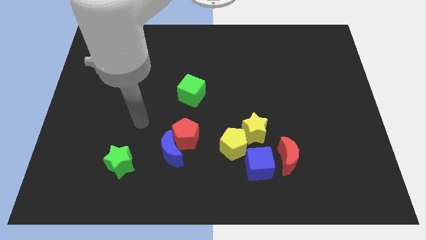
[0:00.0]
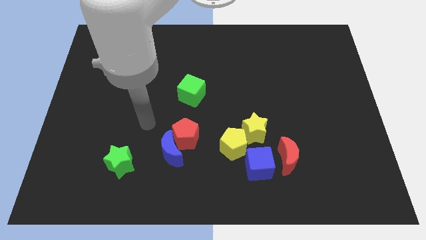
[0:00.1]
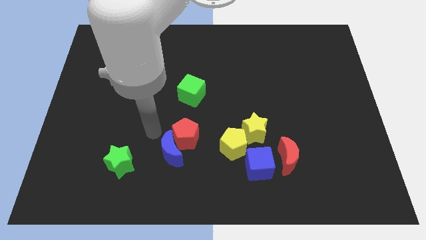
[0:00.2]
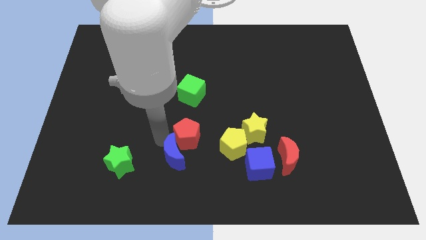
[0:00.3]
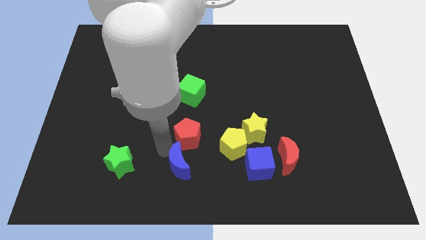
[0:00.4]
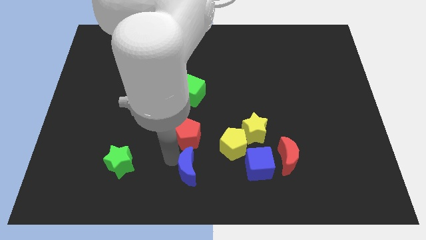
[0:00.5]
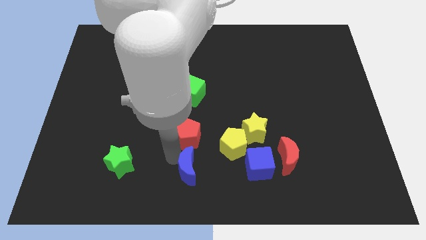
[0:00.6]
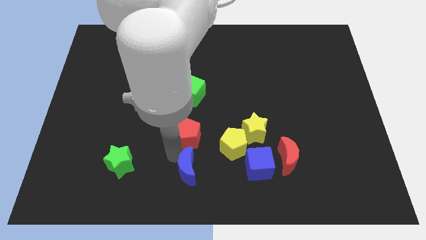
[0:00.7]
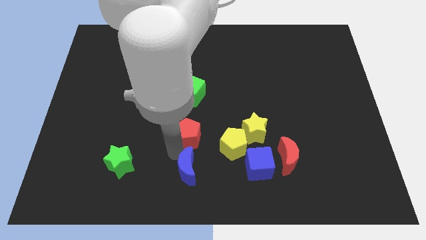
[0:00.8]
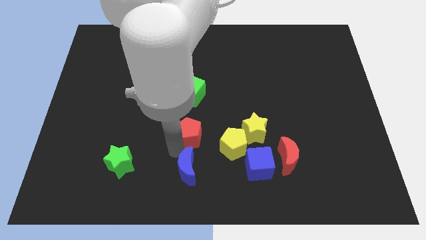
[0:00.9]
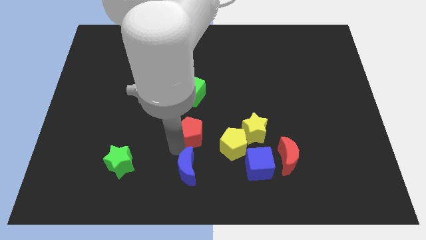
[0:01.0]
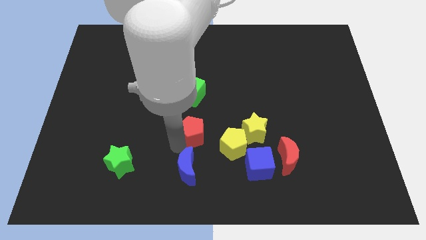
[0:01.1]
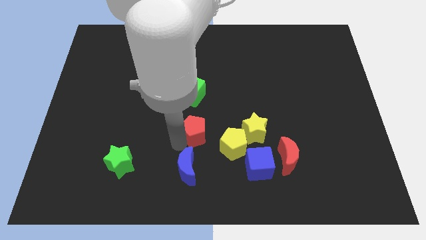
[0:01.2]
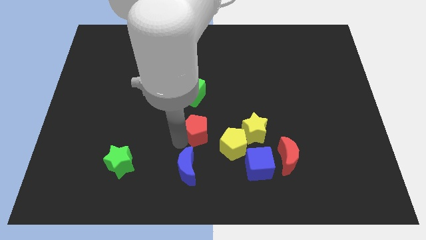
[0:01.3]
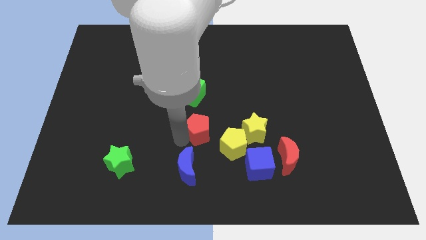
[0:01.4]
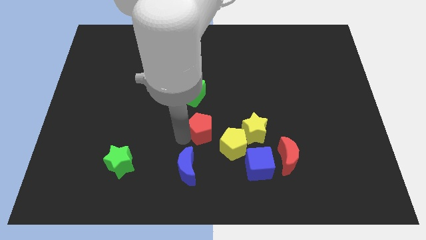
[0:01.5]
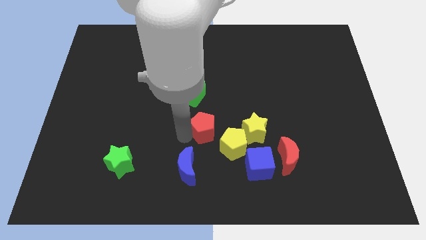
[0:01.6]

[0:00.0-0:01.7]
pull the red pentagon apart from the blue moon

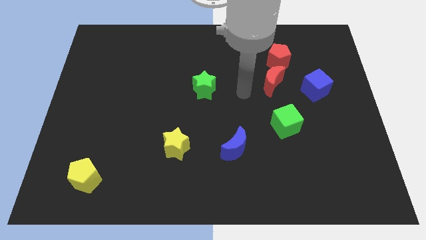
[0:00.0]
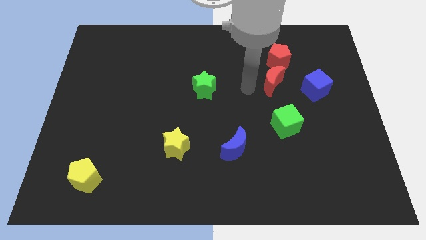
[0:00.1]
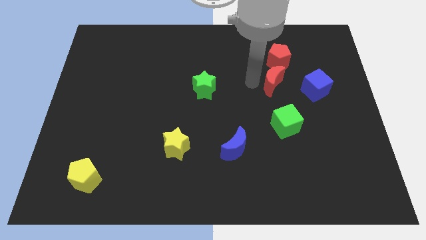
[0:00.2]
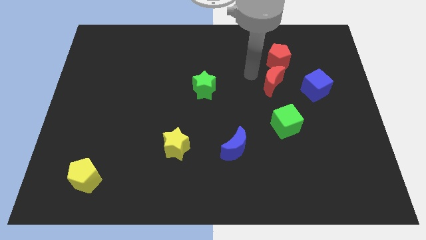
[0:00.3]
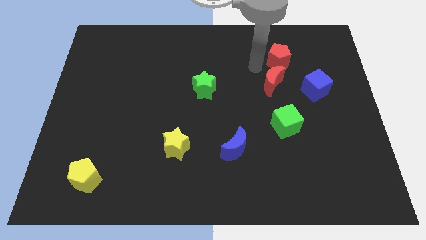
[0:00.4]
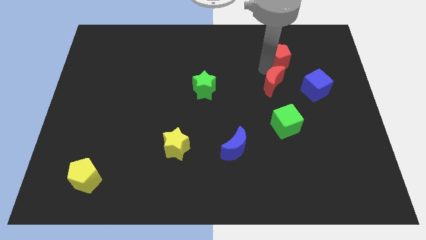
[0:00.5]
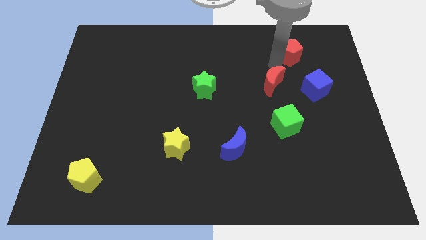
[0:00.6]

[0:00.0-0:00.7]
separate the red moon from the red pentagon

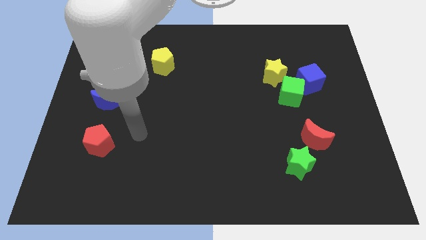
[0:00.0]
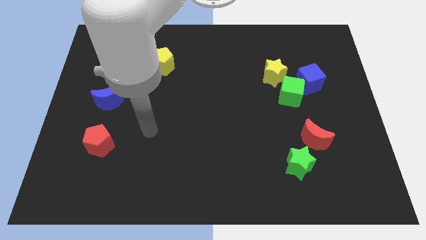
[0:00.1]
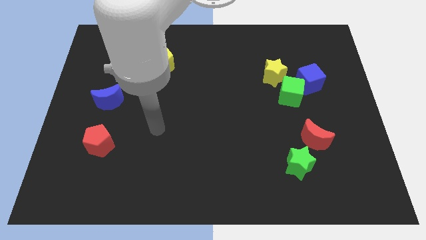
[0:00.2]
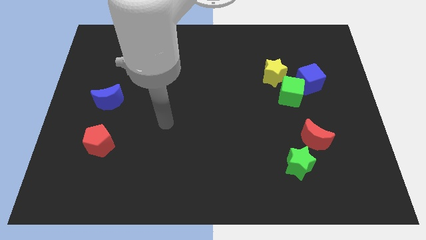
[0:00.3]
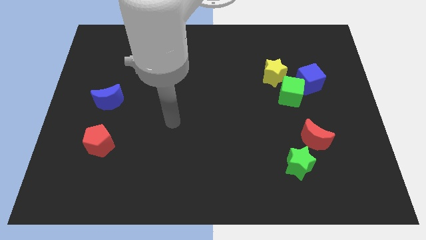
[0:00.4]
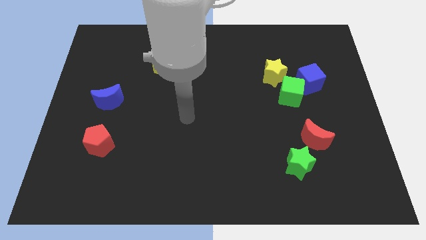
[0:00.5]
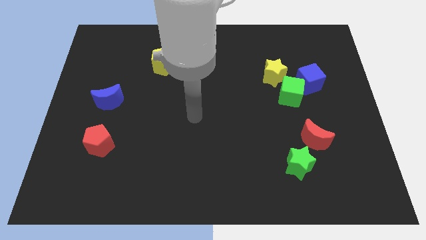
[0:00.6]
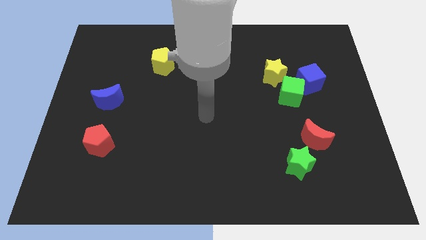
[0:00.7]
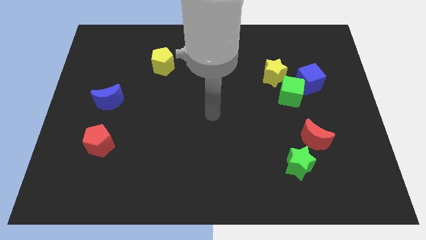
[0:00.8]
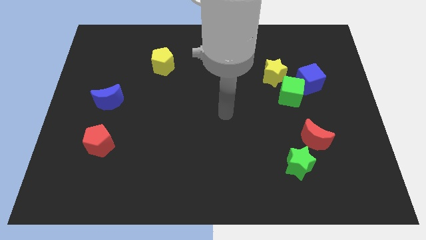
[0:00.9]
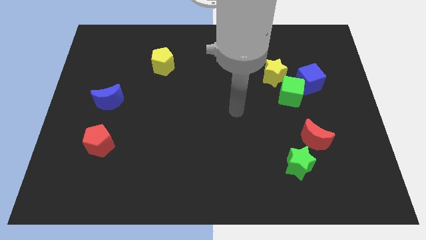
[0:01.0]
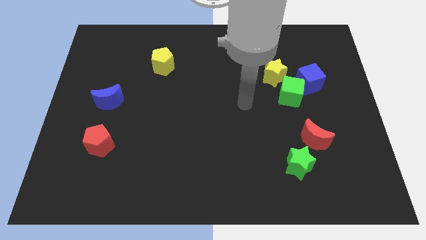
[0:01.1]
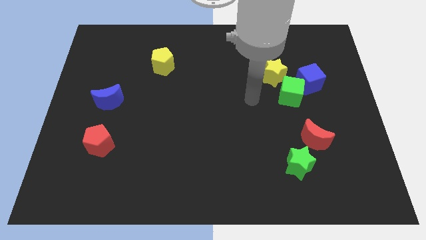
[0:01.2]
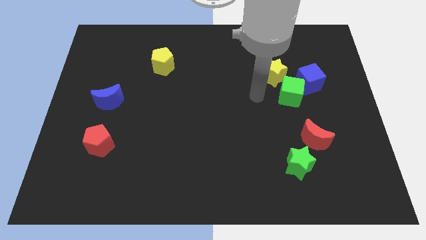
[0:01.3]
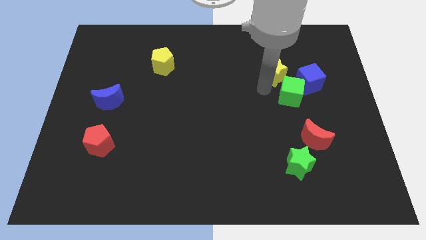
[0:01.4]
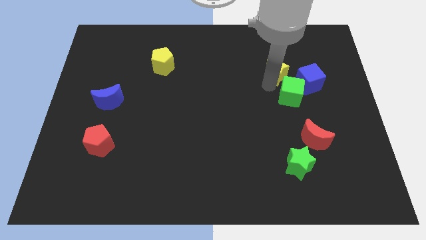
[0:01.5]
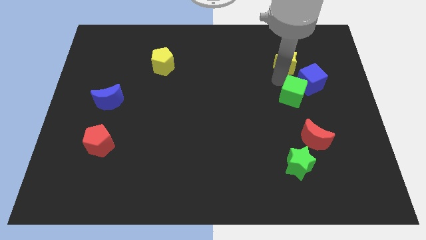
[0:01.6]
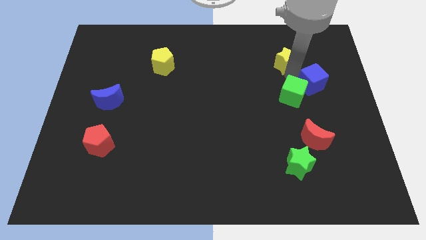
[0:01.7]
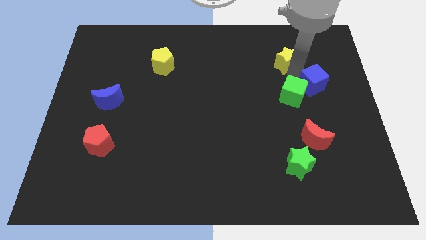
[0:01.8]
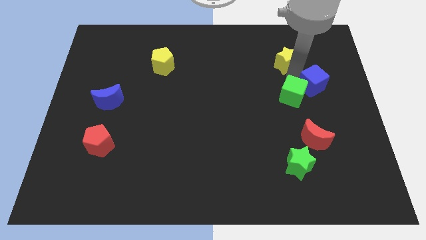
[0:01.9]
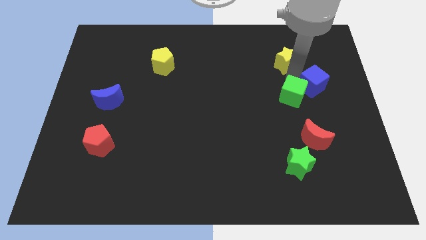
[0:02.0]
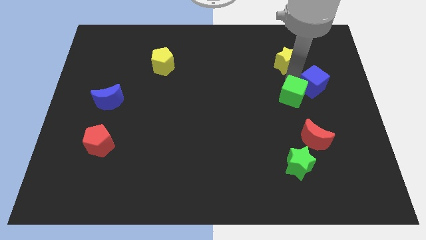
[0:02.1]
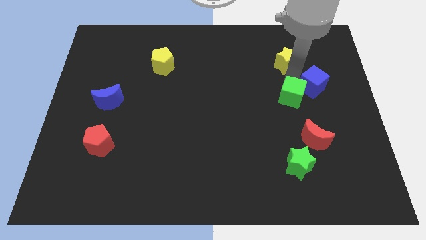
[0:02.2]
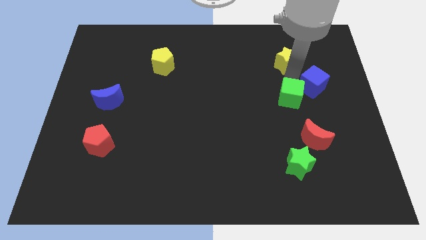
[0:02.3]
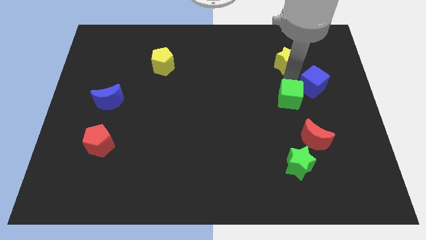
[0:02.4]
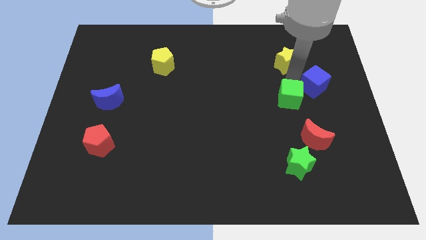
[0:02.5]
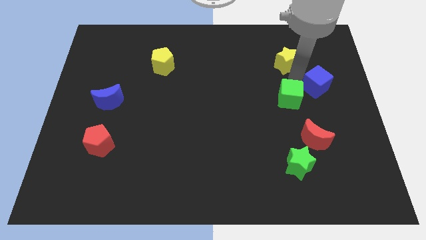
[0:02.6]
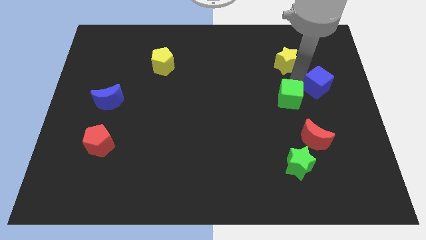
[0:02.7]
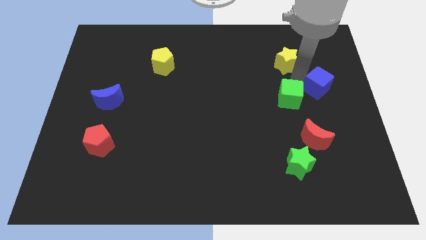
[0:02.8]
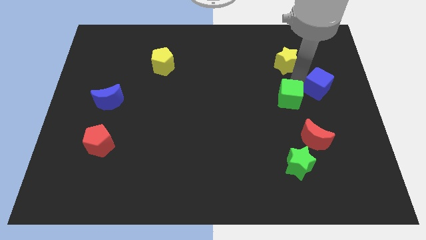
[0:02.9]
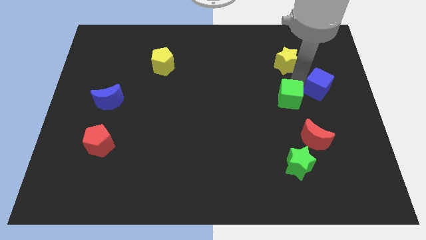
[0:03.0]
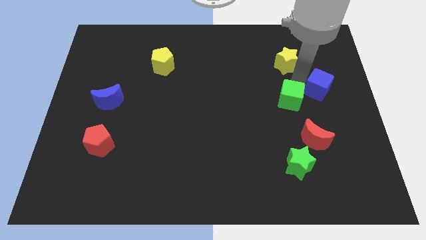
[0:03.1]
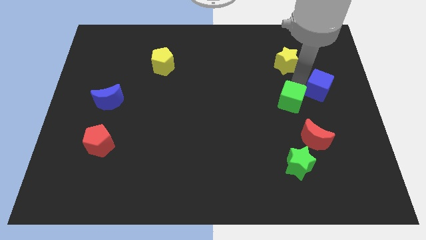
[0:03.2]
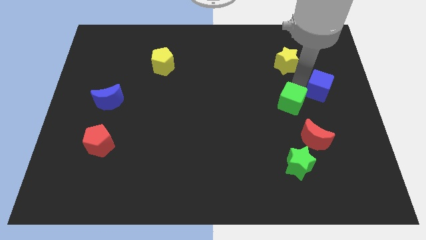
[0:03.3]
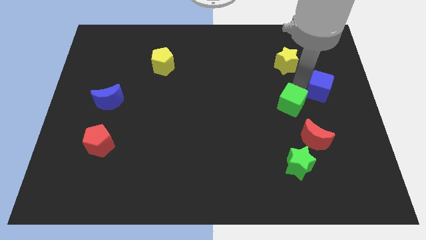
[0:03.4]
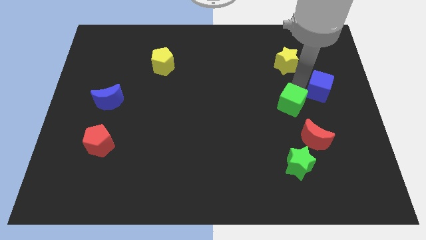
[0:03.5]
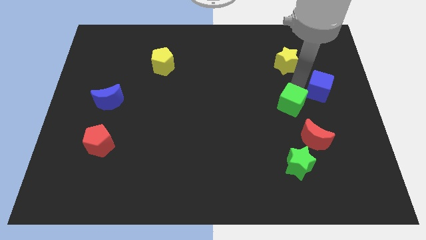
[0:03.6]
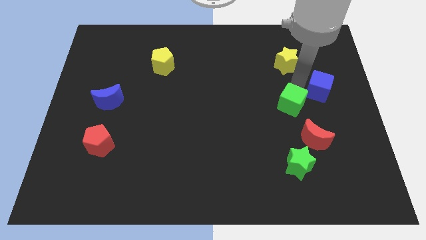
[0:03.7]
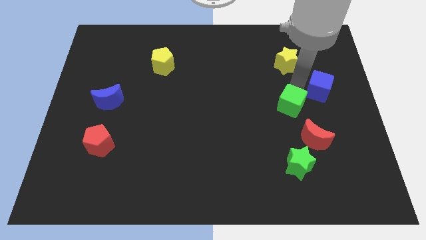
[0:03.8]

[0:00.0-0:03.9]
pull the green cube apart from the blue cube and yellow star

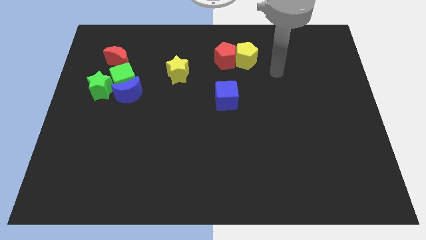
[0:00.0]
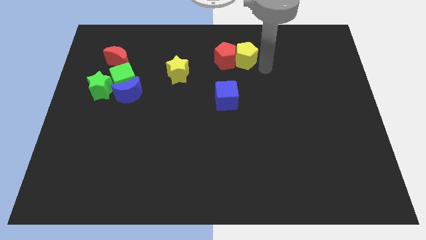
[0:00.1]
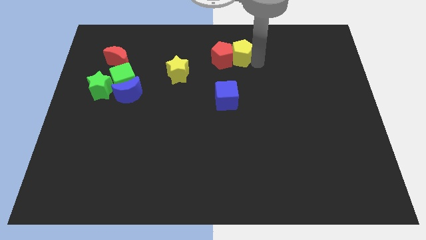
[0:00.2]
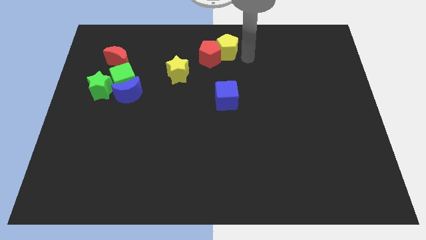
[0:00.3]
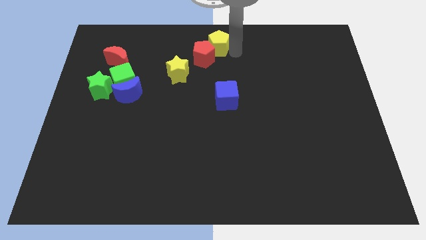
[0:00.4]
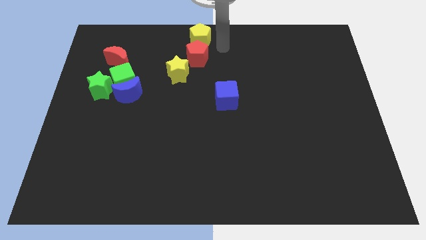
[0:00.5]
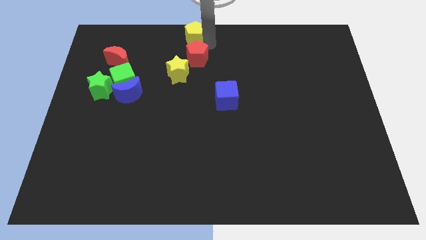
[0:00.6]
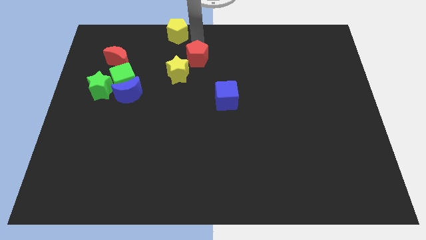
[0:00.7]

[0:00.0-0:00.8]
separate the red pentagon from the yellow pentagon

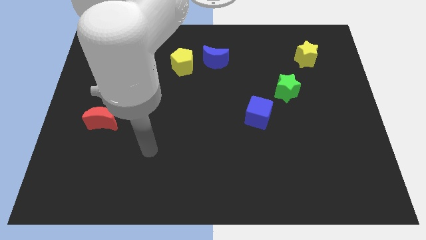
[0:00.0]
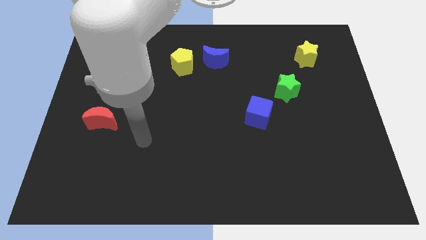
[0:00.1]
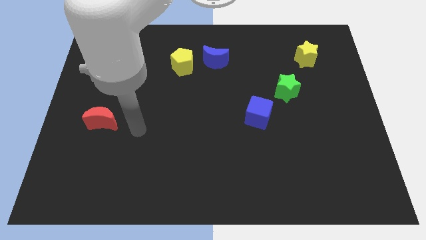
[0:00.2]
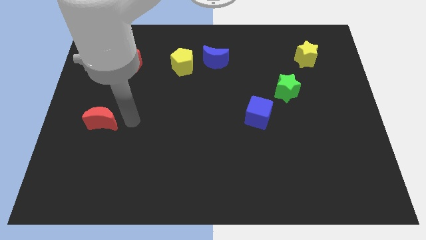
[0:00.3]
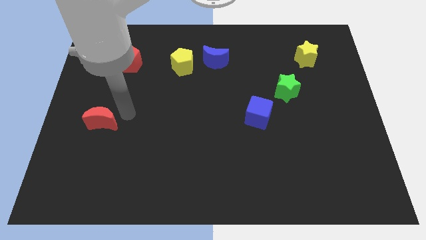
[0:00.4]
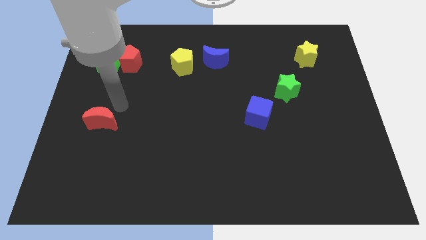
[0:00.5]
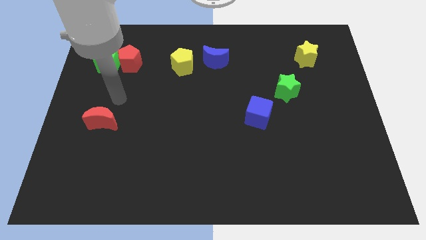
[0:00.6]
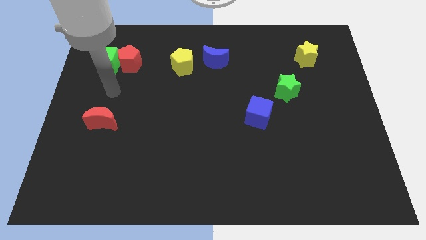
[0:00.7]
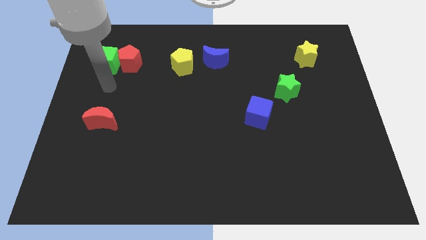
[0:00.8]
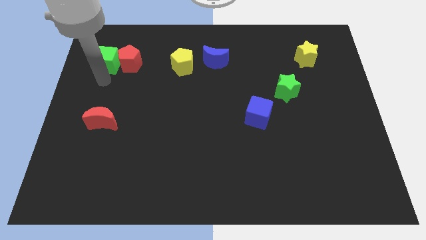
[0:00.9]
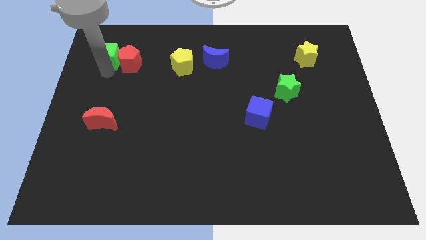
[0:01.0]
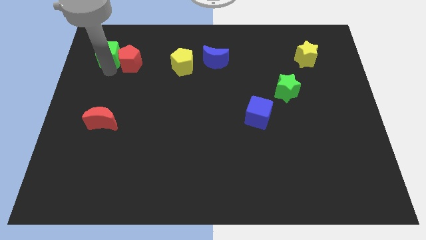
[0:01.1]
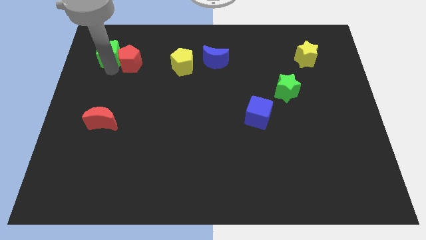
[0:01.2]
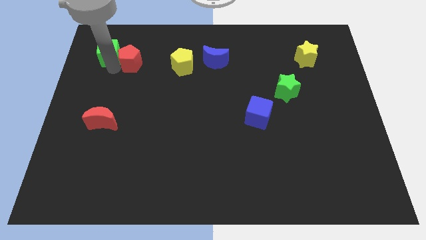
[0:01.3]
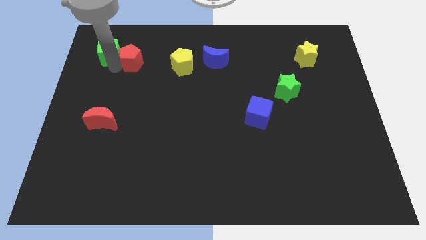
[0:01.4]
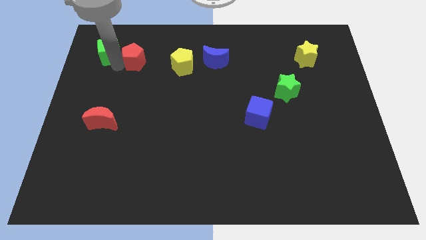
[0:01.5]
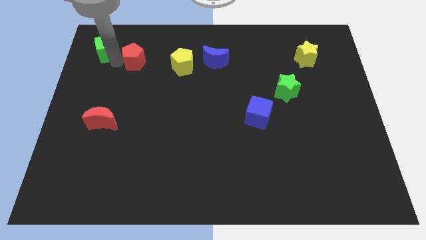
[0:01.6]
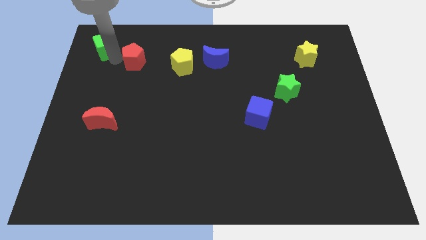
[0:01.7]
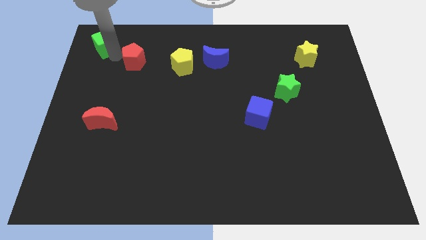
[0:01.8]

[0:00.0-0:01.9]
pull the red pentagon apart from the green cube

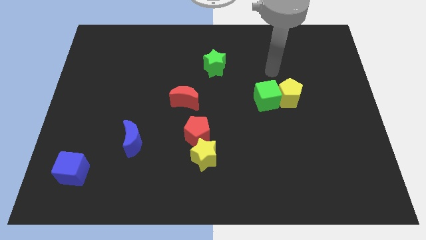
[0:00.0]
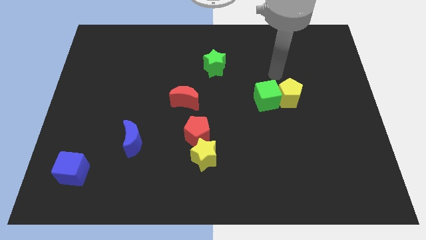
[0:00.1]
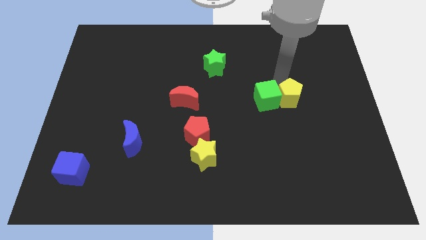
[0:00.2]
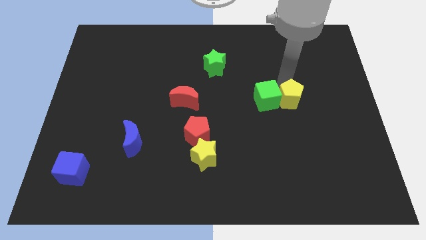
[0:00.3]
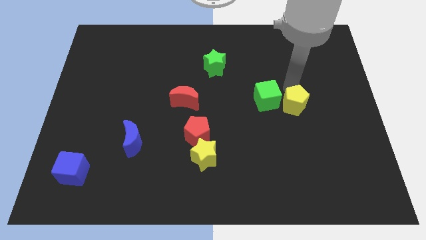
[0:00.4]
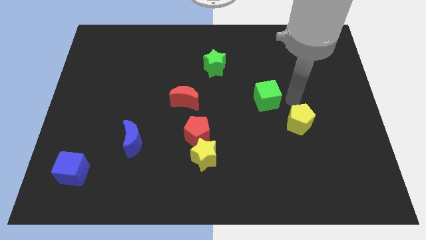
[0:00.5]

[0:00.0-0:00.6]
move the green cube away from the yellow pentagon
